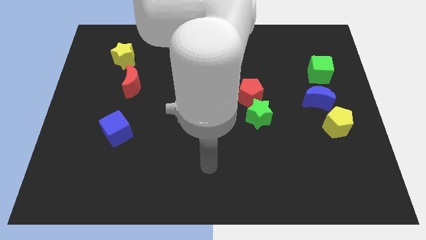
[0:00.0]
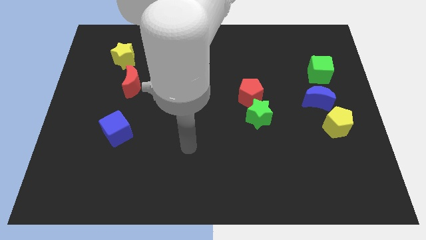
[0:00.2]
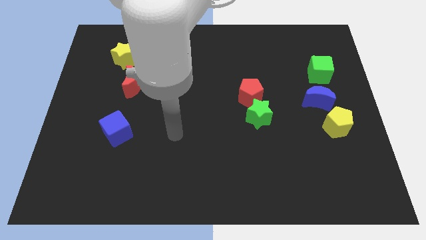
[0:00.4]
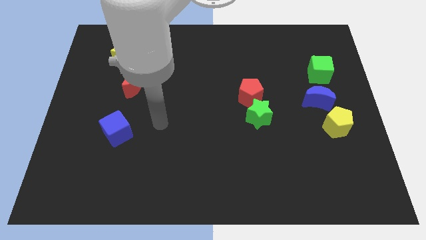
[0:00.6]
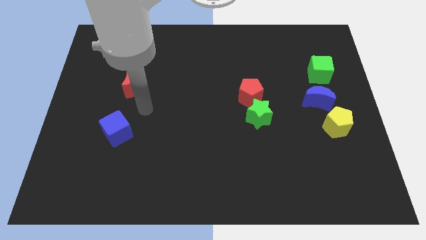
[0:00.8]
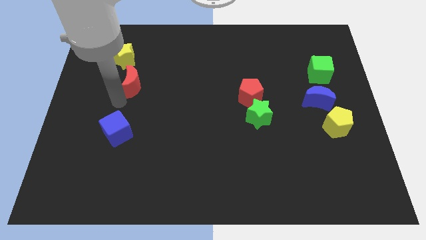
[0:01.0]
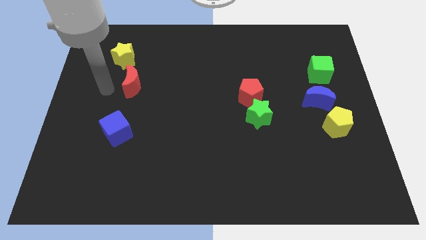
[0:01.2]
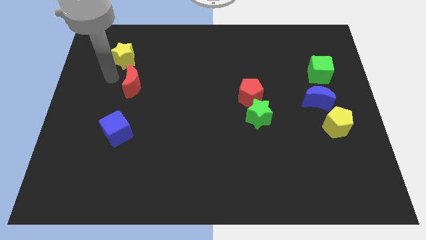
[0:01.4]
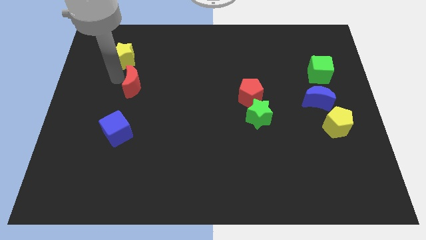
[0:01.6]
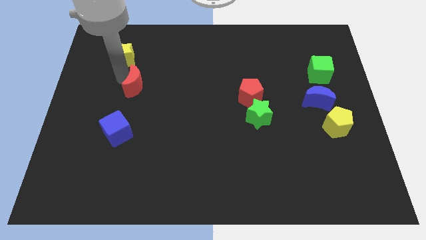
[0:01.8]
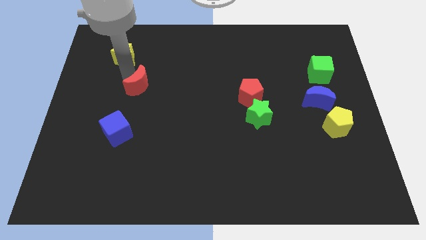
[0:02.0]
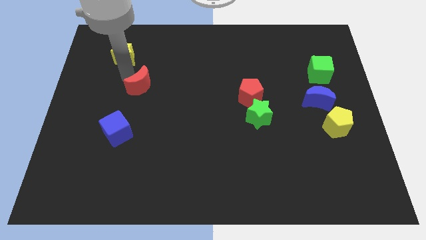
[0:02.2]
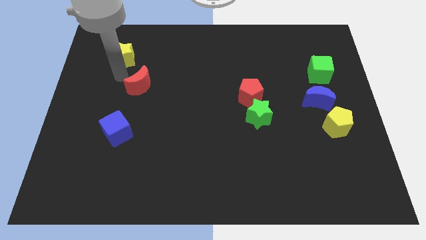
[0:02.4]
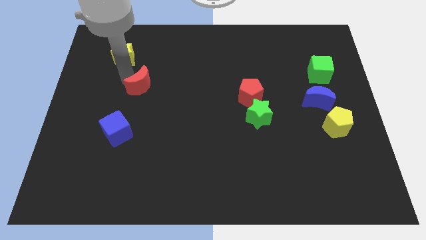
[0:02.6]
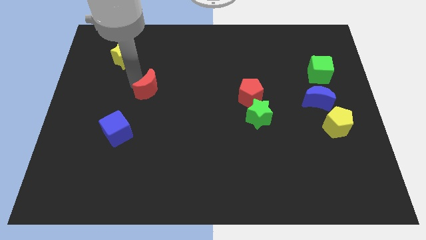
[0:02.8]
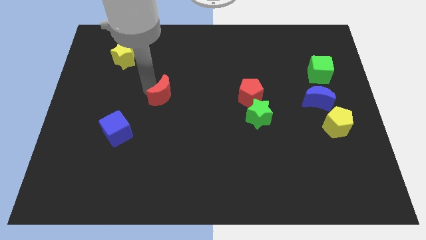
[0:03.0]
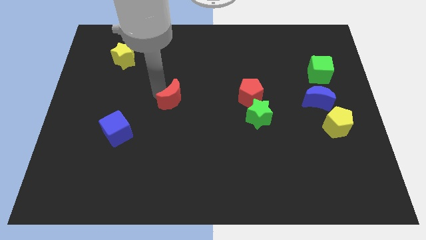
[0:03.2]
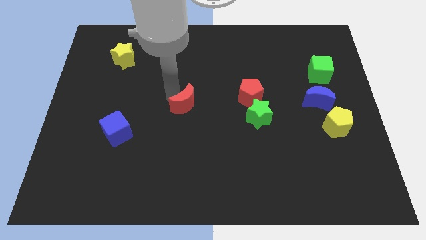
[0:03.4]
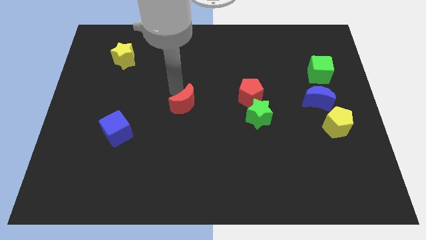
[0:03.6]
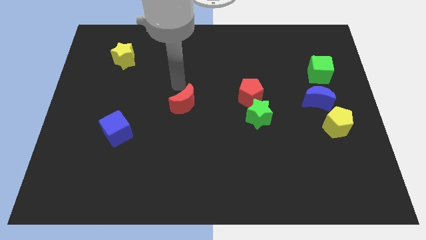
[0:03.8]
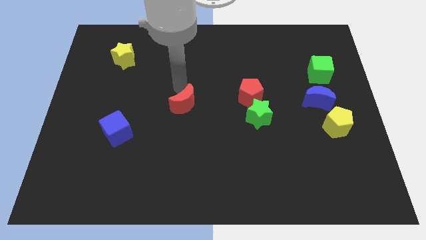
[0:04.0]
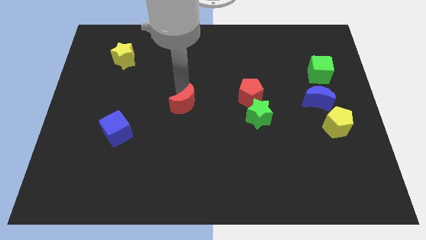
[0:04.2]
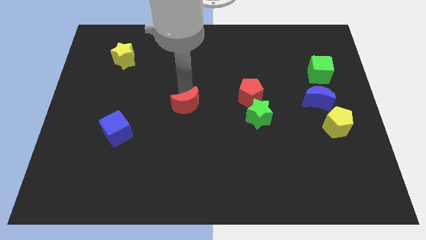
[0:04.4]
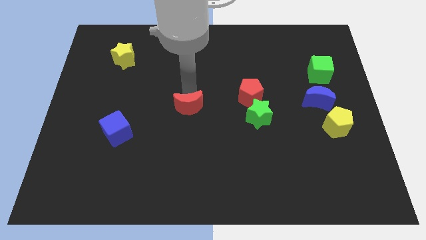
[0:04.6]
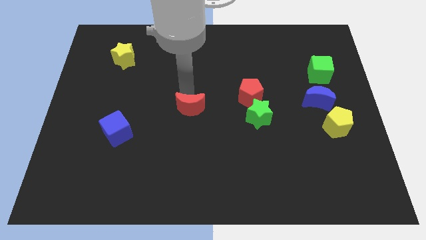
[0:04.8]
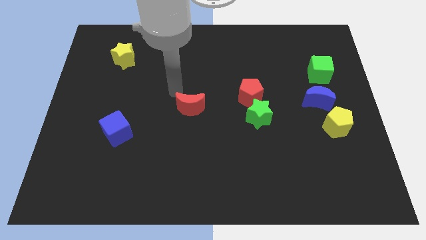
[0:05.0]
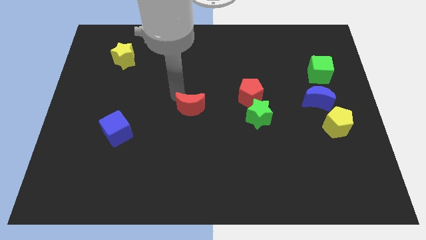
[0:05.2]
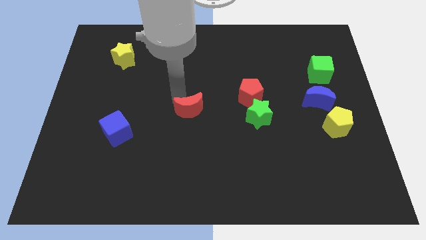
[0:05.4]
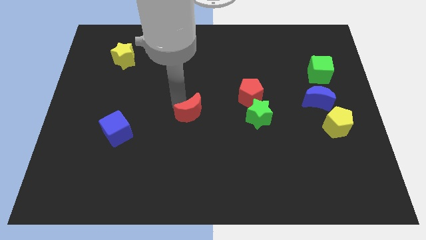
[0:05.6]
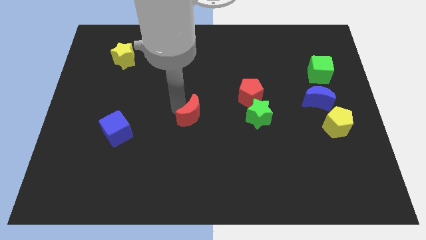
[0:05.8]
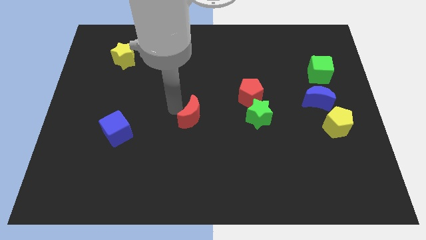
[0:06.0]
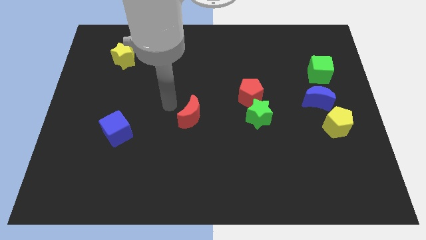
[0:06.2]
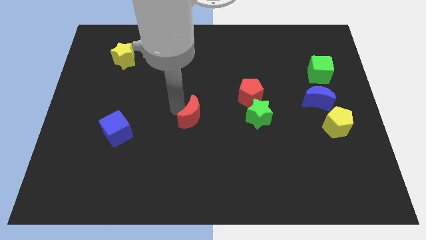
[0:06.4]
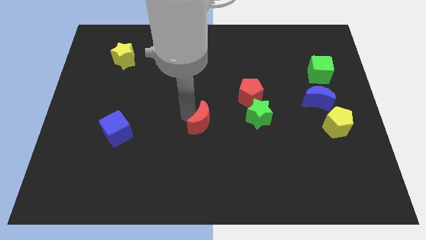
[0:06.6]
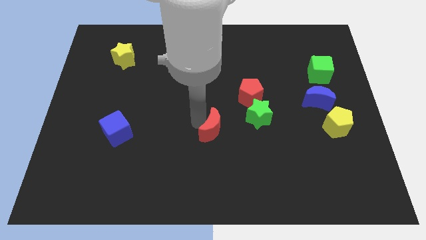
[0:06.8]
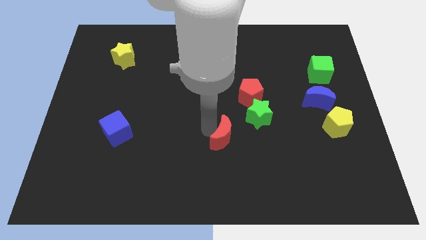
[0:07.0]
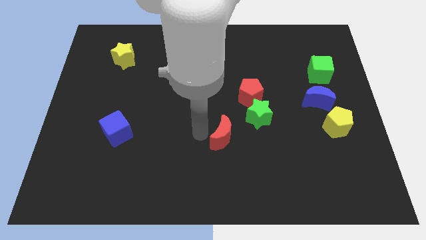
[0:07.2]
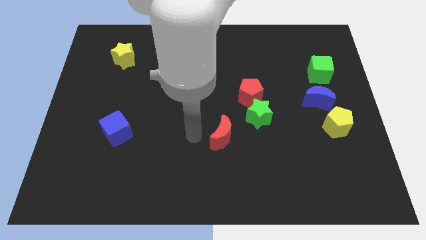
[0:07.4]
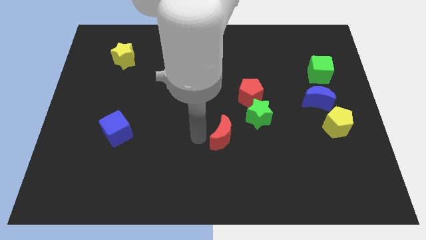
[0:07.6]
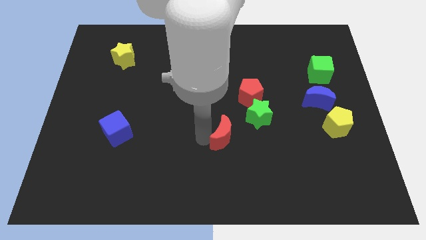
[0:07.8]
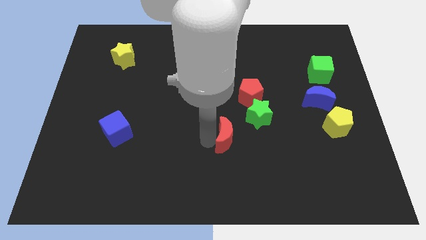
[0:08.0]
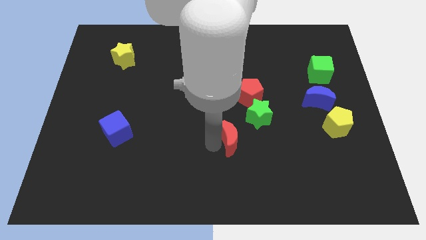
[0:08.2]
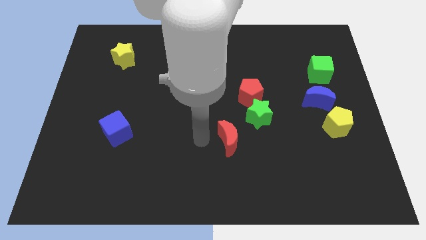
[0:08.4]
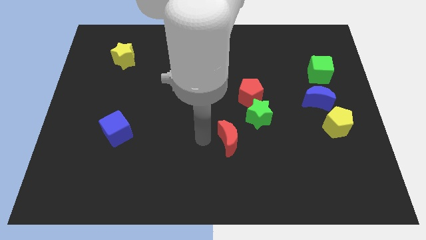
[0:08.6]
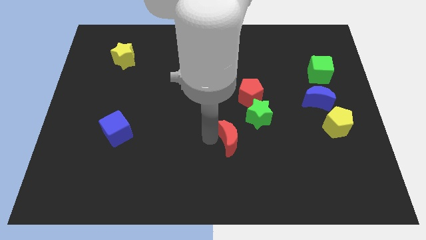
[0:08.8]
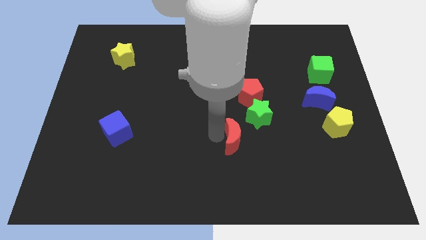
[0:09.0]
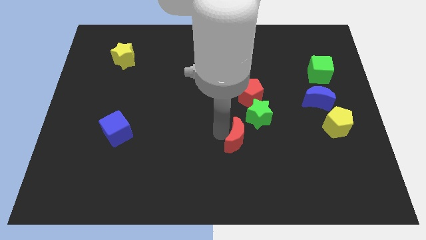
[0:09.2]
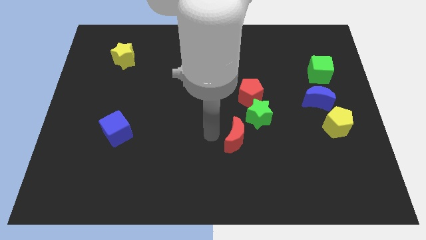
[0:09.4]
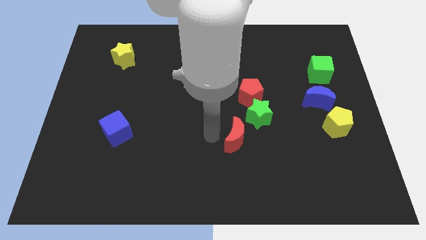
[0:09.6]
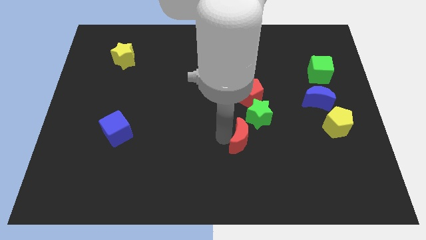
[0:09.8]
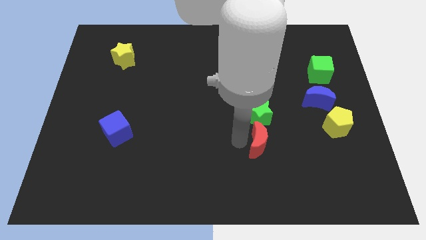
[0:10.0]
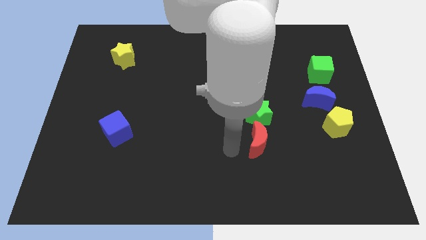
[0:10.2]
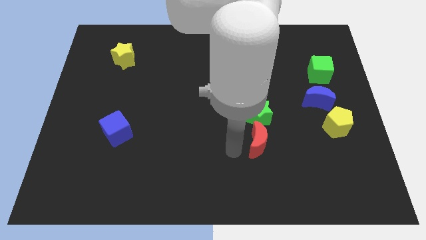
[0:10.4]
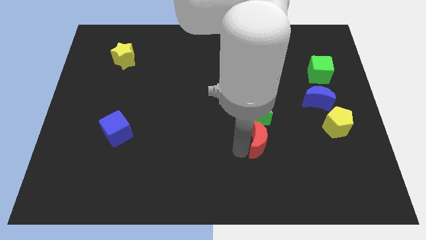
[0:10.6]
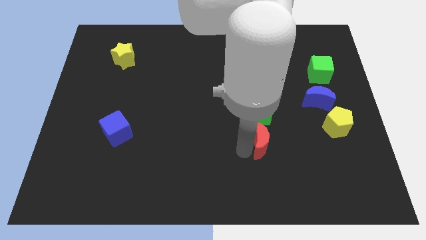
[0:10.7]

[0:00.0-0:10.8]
push the red moon to the bottom right side of the green star

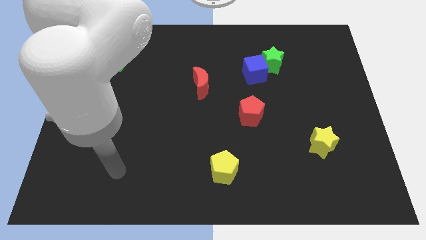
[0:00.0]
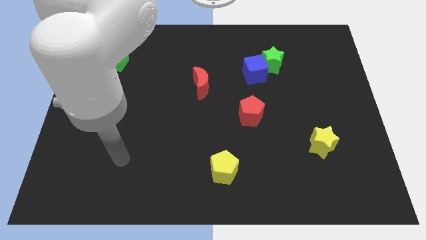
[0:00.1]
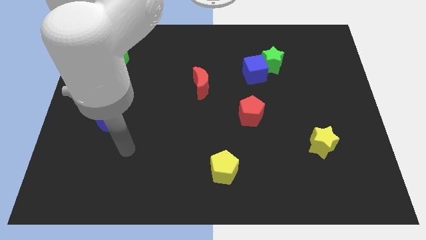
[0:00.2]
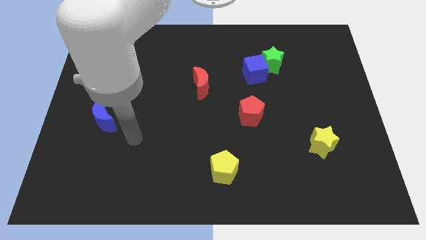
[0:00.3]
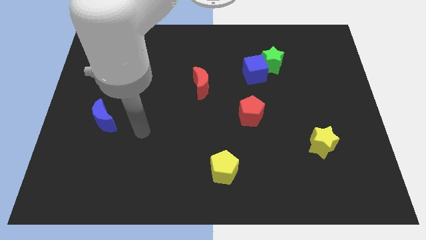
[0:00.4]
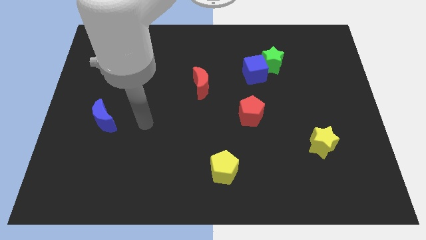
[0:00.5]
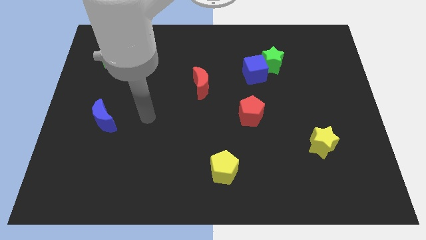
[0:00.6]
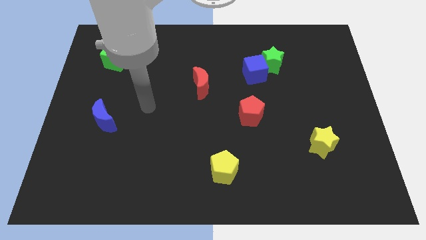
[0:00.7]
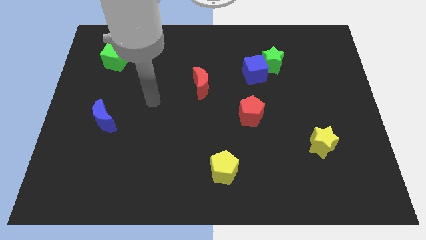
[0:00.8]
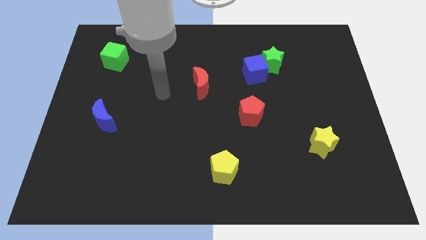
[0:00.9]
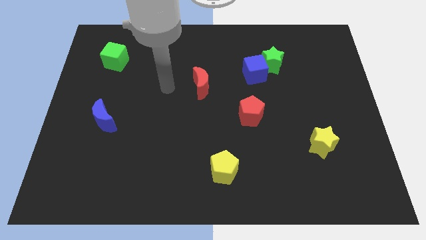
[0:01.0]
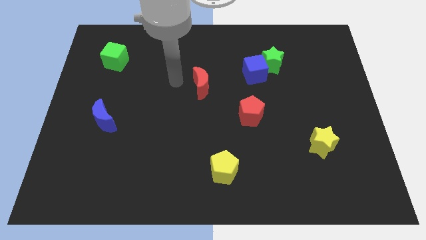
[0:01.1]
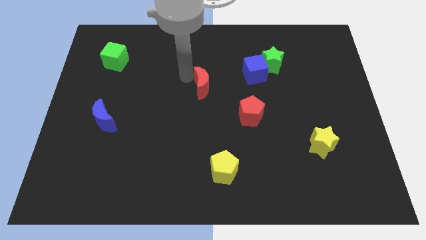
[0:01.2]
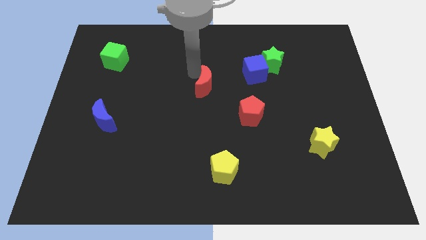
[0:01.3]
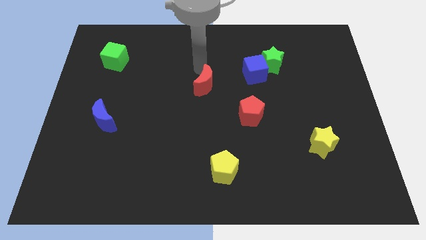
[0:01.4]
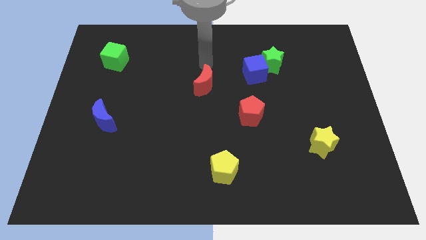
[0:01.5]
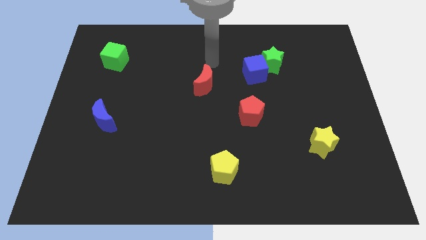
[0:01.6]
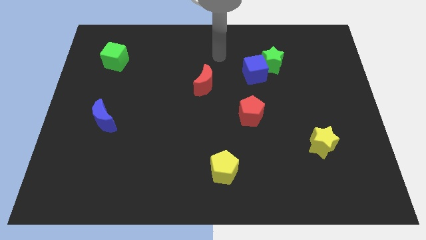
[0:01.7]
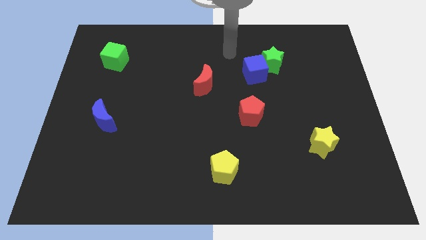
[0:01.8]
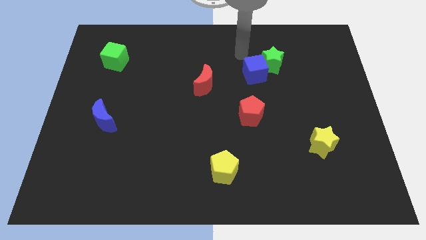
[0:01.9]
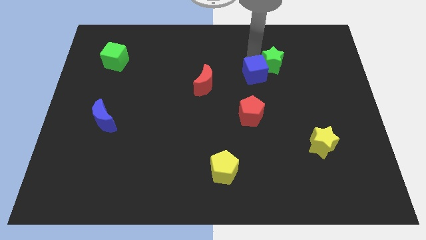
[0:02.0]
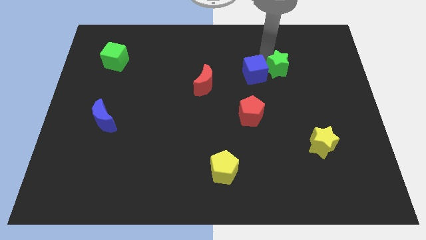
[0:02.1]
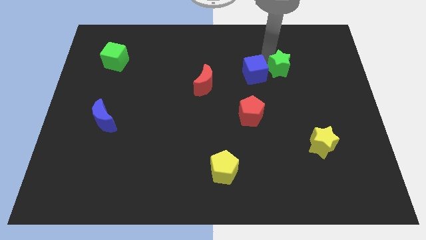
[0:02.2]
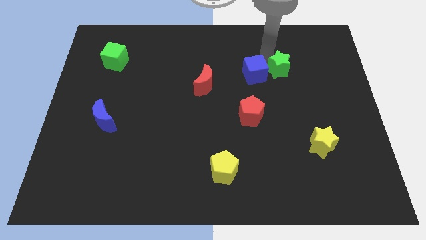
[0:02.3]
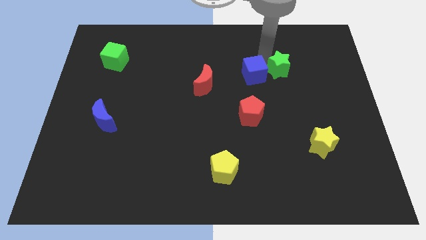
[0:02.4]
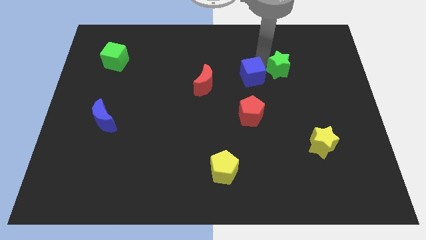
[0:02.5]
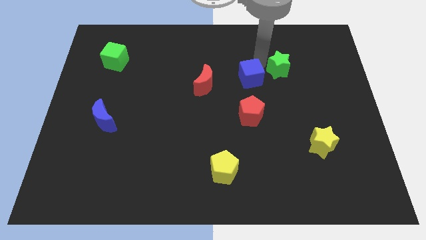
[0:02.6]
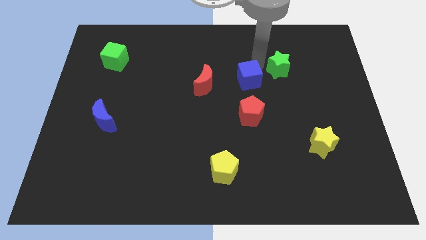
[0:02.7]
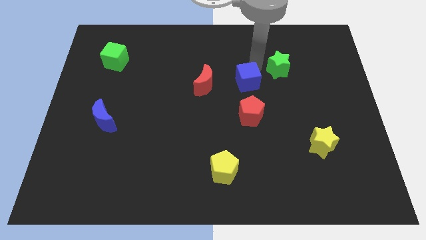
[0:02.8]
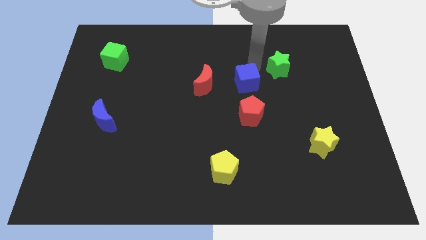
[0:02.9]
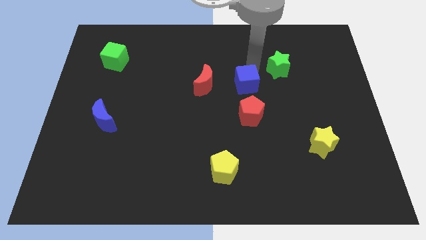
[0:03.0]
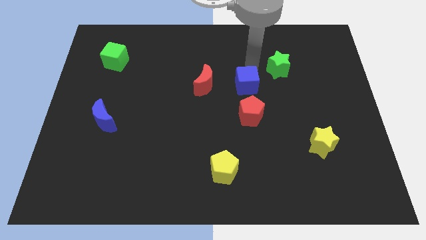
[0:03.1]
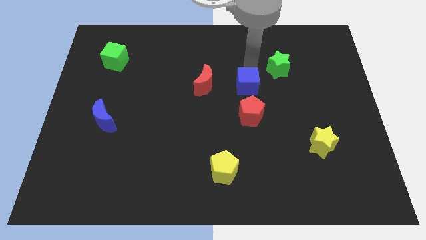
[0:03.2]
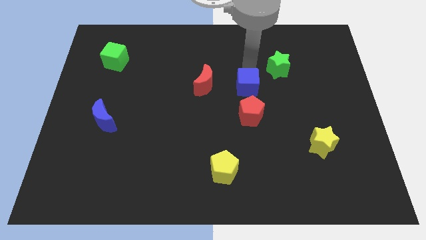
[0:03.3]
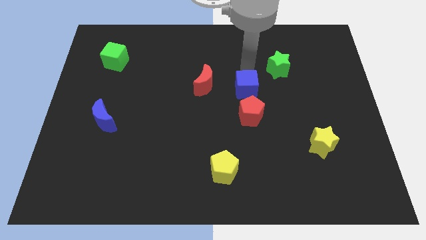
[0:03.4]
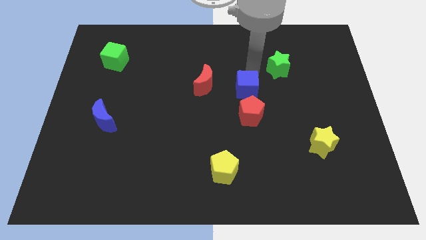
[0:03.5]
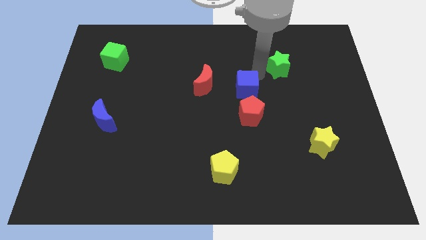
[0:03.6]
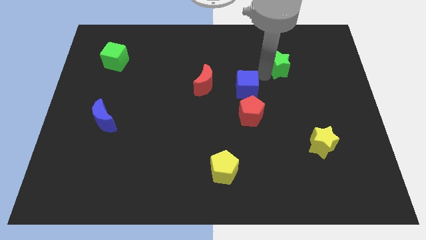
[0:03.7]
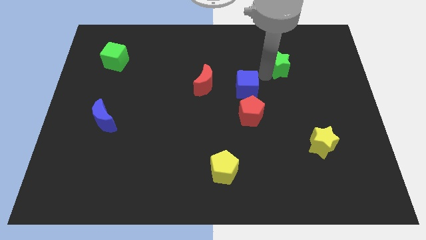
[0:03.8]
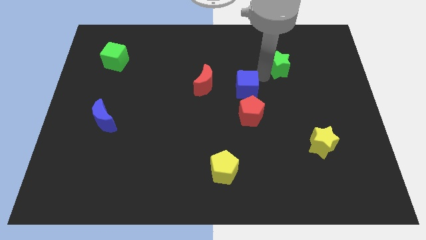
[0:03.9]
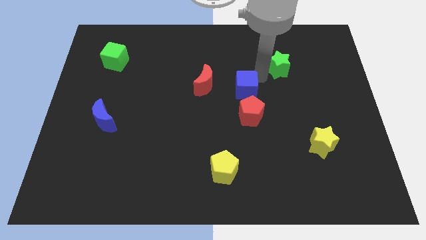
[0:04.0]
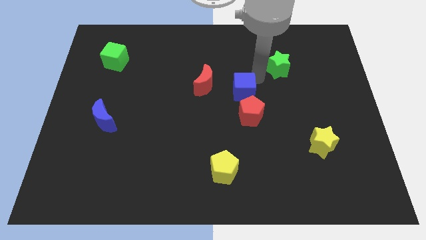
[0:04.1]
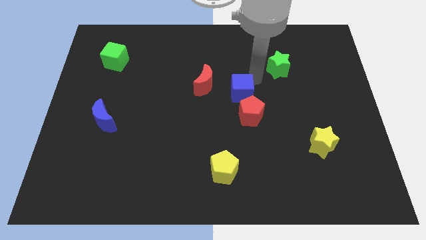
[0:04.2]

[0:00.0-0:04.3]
push the blue cube to the bottom right side of the red moon
